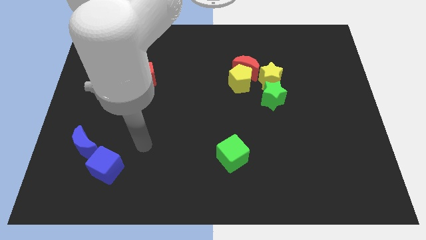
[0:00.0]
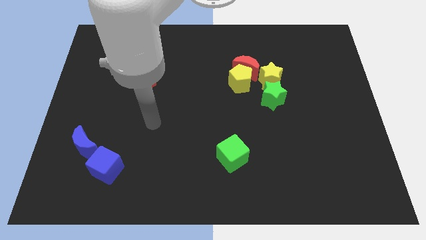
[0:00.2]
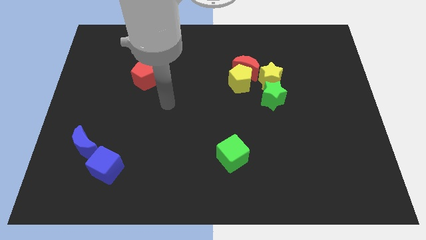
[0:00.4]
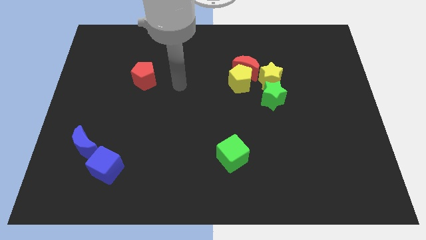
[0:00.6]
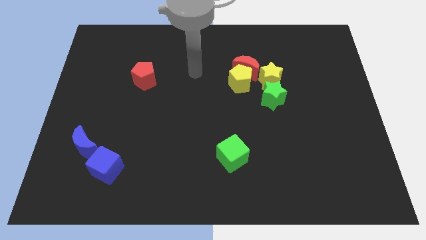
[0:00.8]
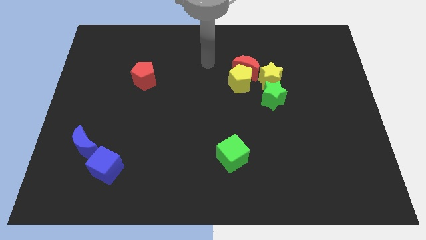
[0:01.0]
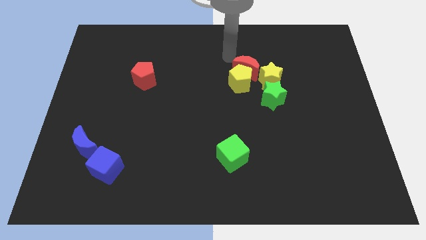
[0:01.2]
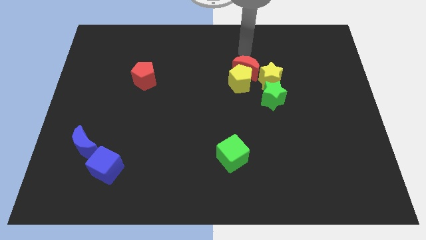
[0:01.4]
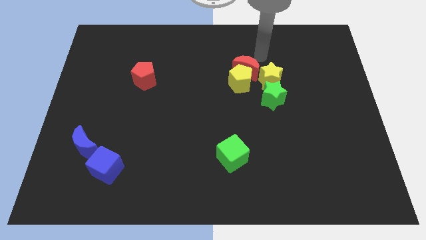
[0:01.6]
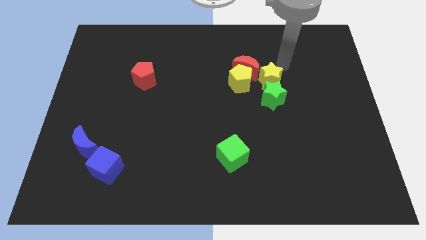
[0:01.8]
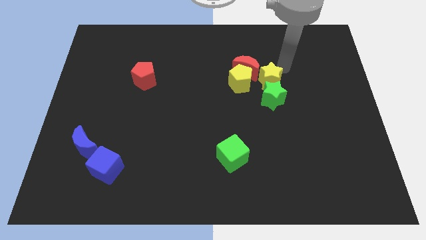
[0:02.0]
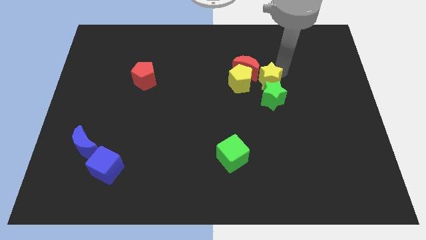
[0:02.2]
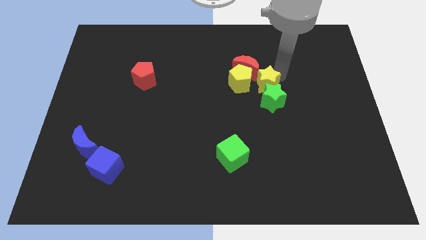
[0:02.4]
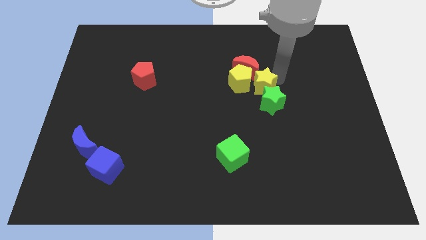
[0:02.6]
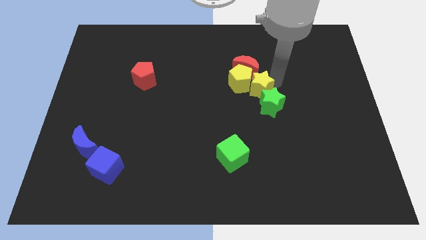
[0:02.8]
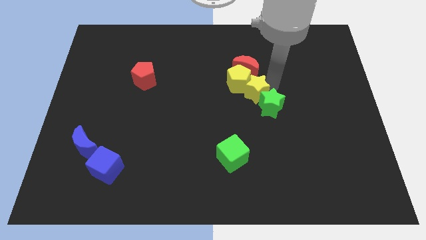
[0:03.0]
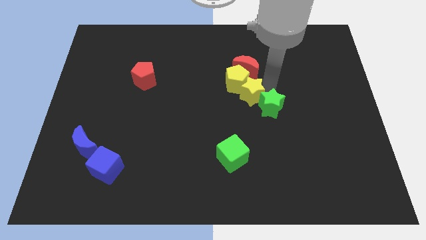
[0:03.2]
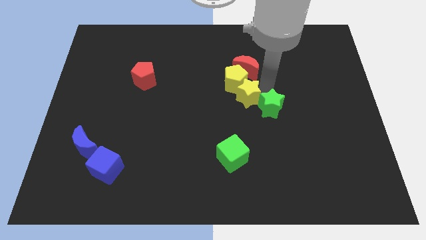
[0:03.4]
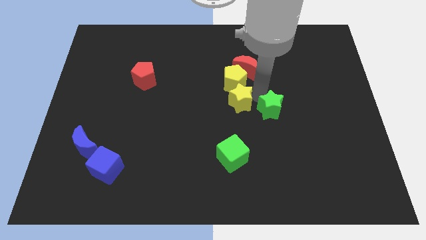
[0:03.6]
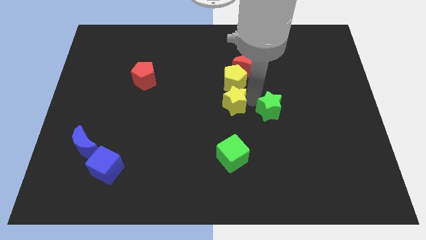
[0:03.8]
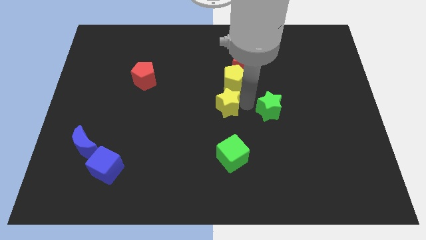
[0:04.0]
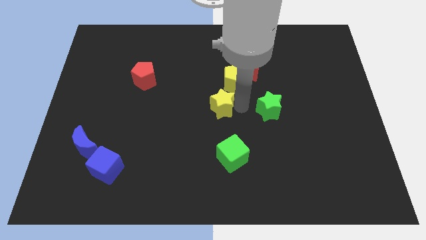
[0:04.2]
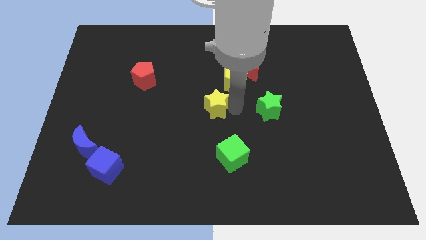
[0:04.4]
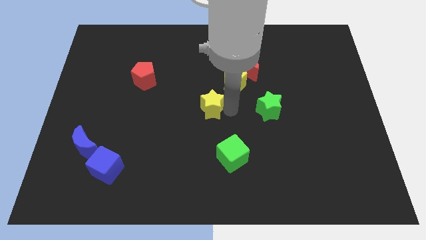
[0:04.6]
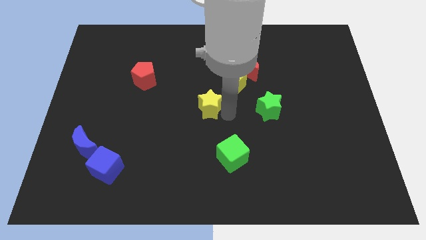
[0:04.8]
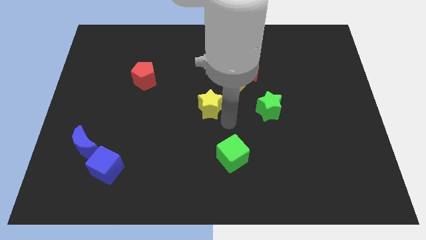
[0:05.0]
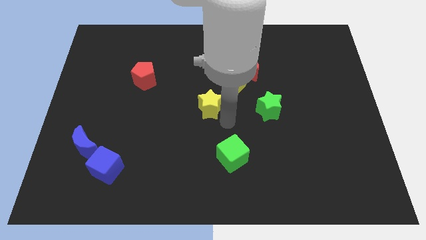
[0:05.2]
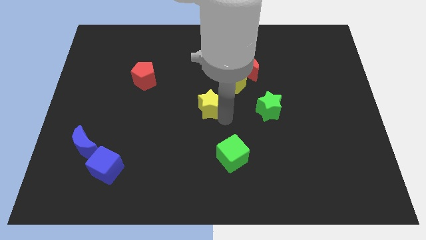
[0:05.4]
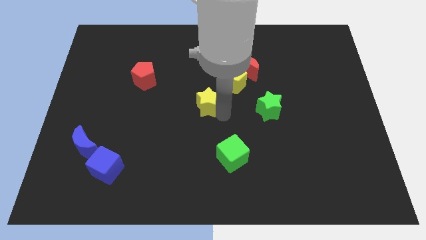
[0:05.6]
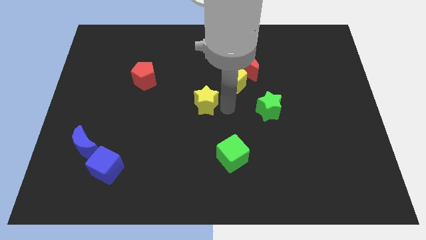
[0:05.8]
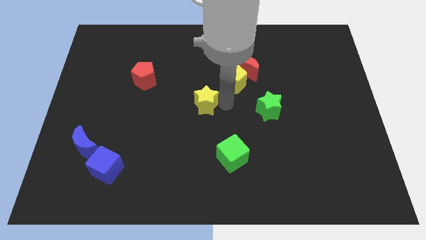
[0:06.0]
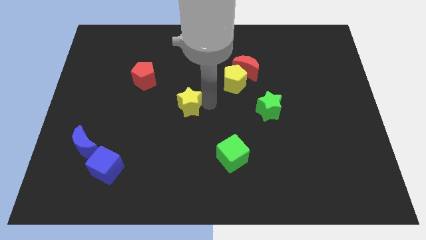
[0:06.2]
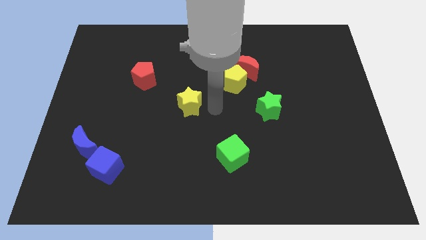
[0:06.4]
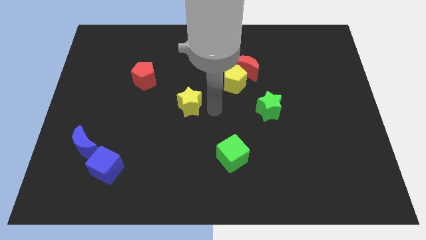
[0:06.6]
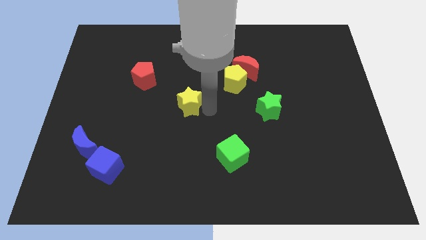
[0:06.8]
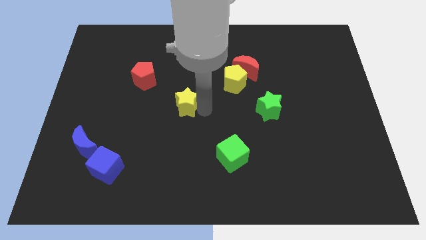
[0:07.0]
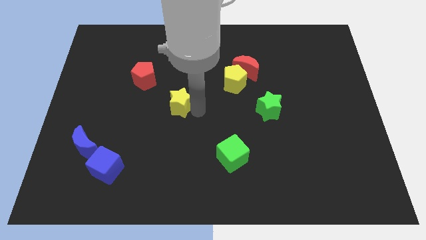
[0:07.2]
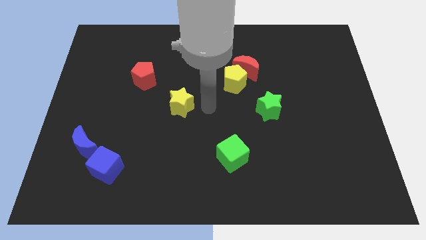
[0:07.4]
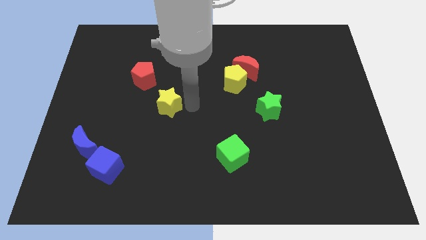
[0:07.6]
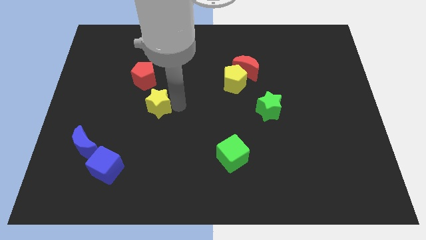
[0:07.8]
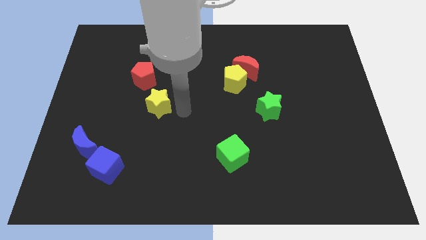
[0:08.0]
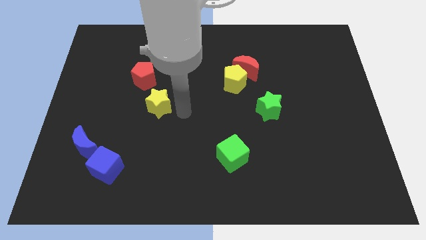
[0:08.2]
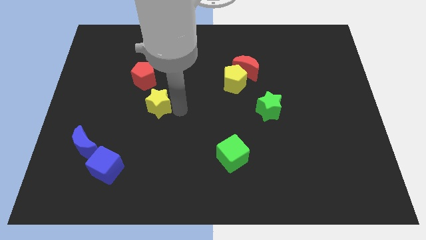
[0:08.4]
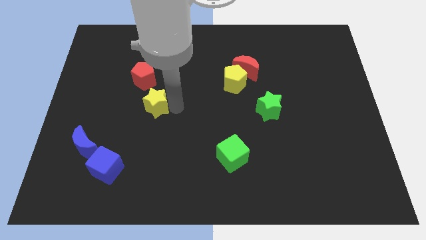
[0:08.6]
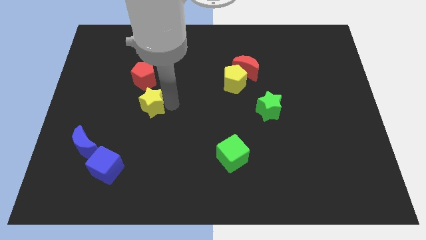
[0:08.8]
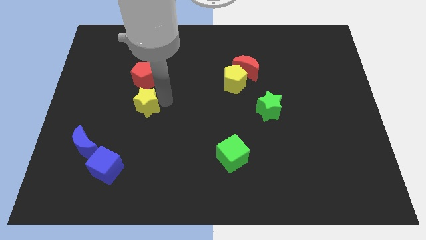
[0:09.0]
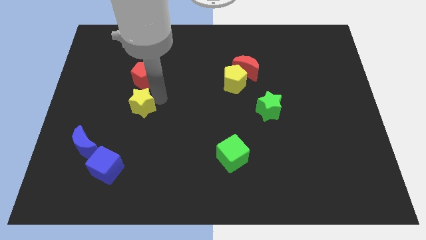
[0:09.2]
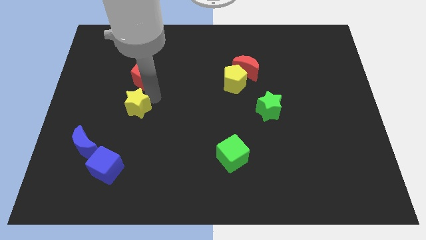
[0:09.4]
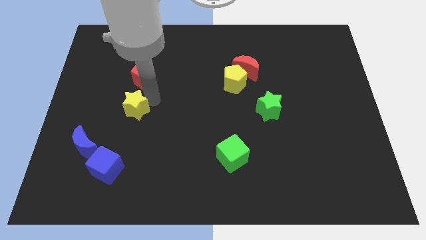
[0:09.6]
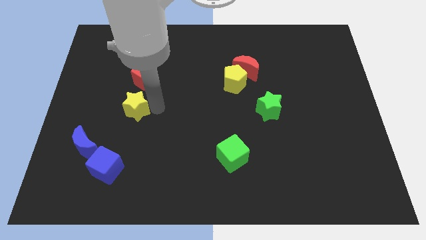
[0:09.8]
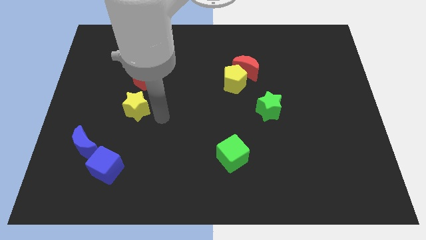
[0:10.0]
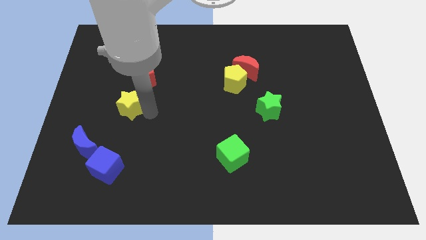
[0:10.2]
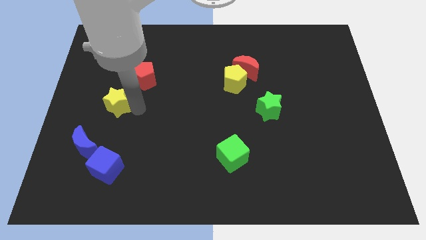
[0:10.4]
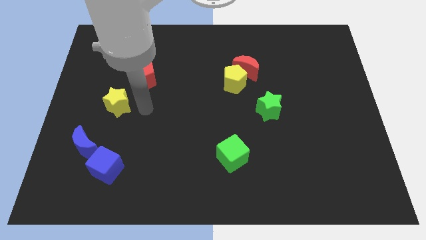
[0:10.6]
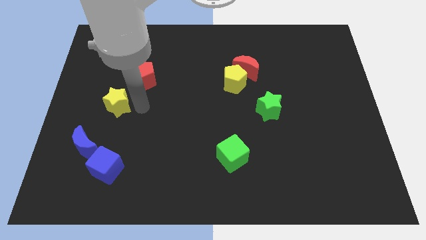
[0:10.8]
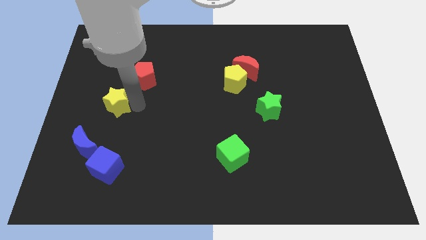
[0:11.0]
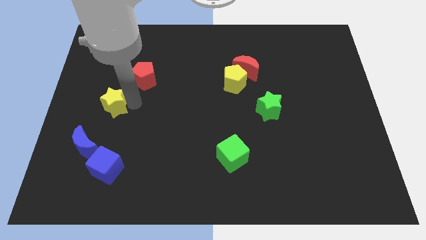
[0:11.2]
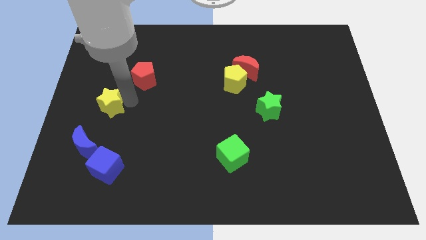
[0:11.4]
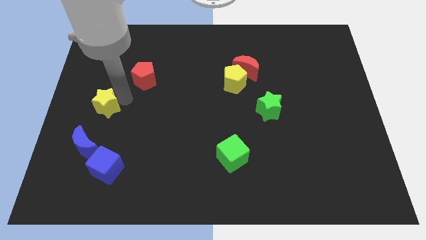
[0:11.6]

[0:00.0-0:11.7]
push the yellow star to the left side

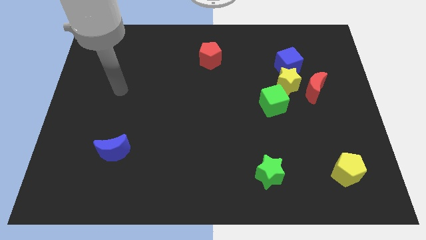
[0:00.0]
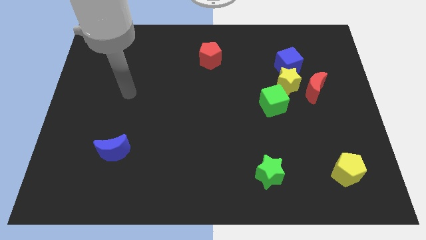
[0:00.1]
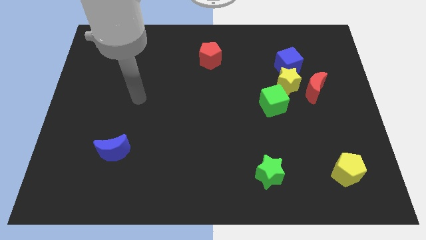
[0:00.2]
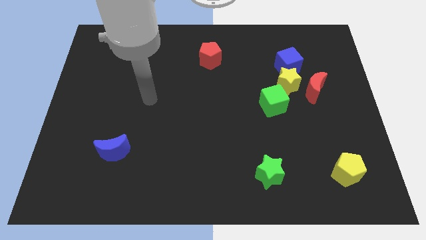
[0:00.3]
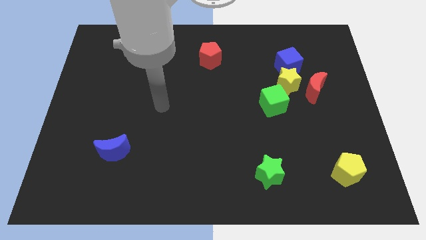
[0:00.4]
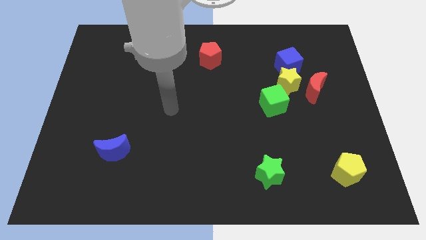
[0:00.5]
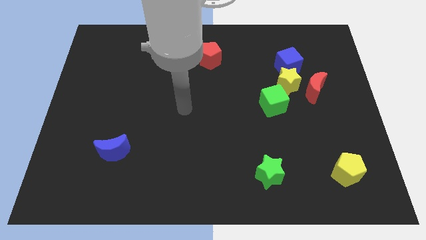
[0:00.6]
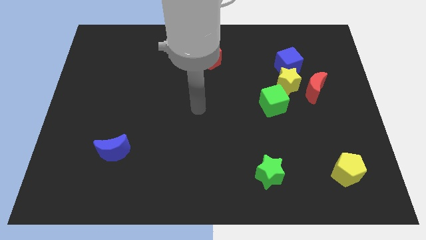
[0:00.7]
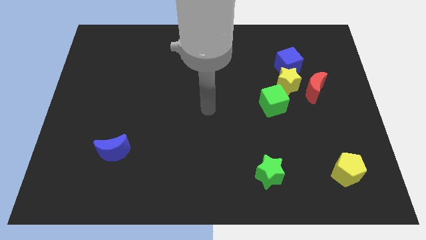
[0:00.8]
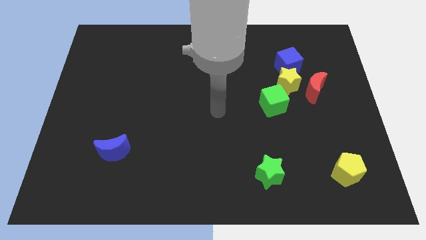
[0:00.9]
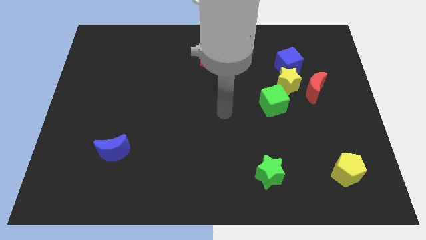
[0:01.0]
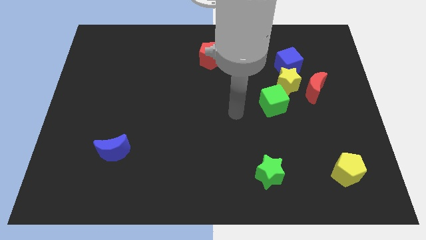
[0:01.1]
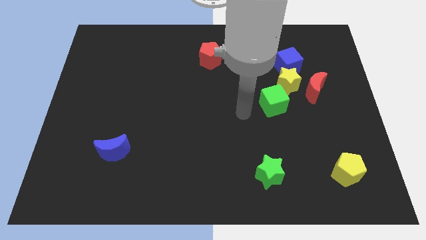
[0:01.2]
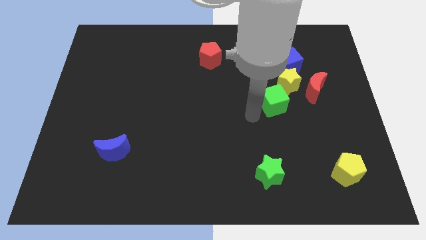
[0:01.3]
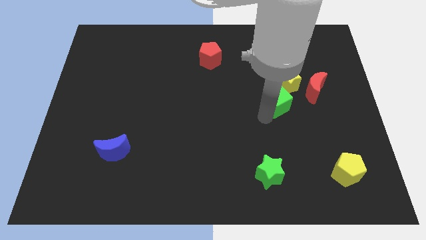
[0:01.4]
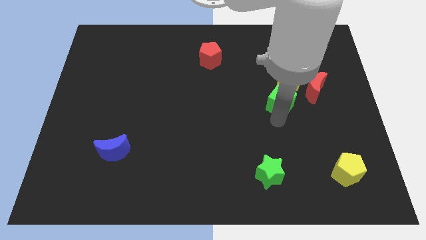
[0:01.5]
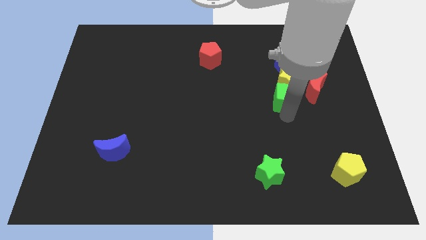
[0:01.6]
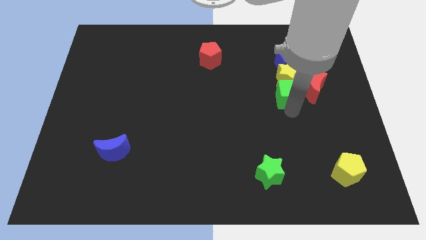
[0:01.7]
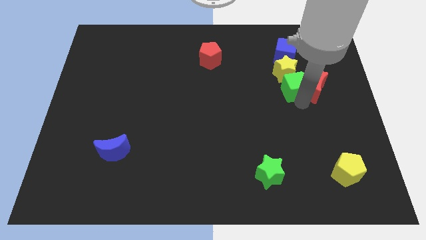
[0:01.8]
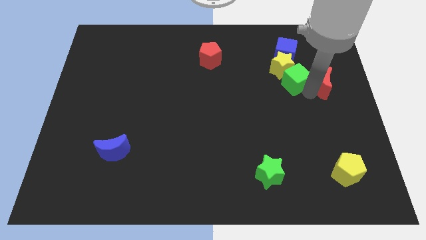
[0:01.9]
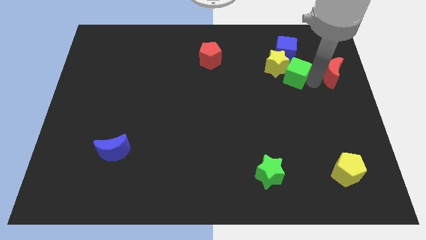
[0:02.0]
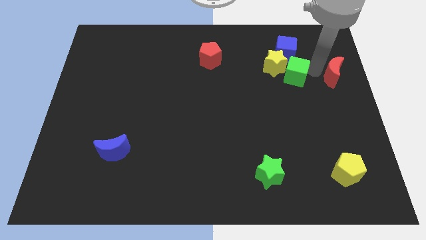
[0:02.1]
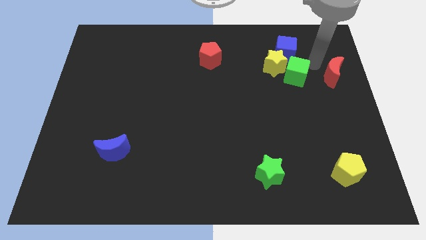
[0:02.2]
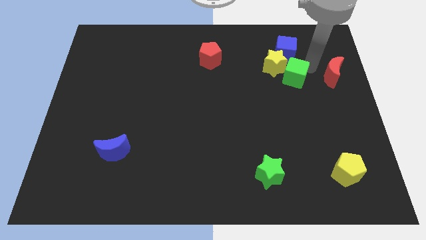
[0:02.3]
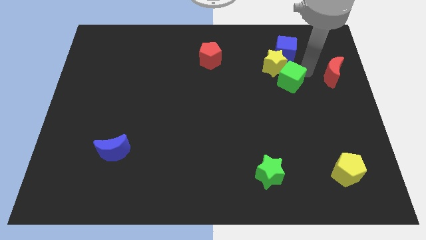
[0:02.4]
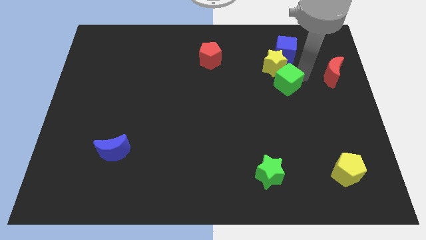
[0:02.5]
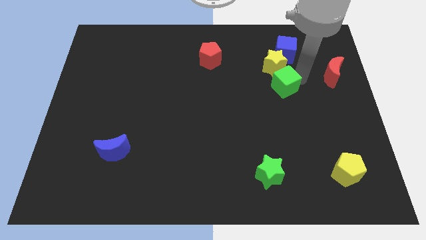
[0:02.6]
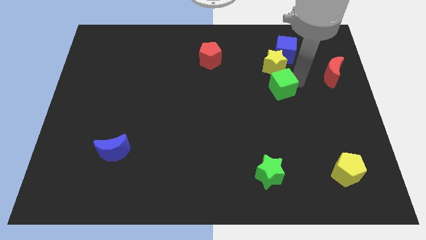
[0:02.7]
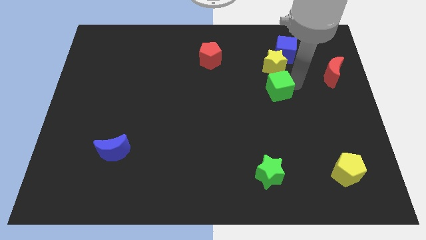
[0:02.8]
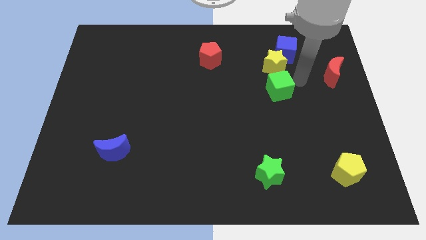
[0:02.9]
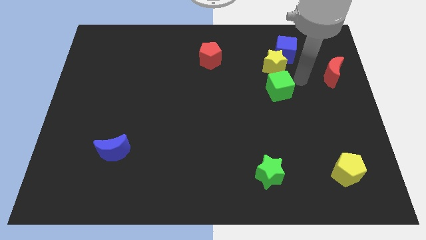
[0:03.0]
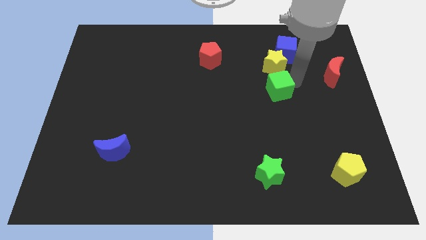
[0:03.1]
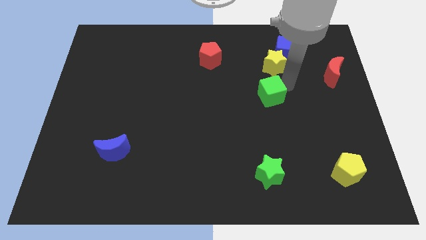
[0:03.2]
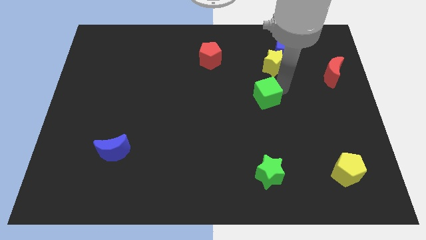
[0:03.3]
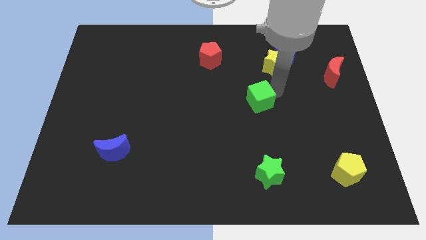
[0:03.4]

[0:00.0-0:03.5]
put the green cube to the middle of the board
